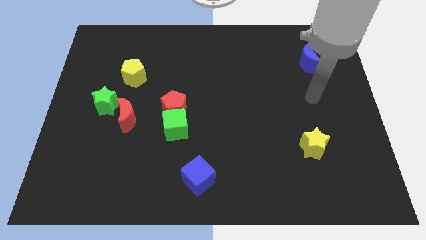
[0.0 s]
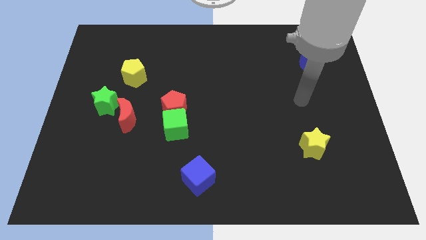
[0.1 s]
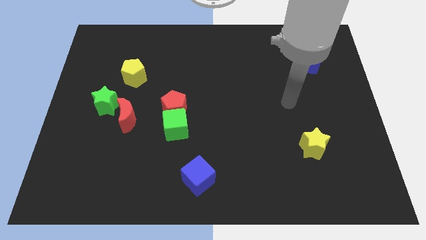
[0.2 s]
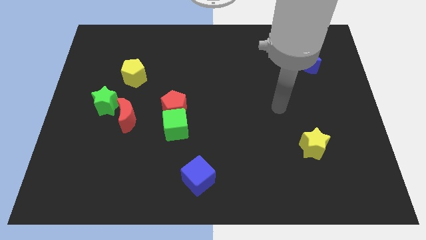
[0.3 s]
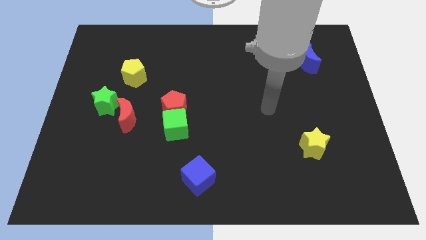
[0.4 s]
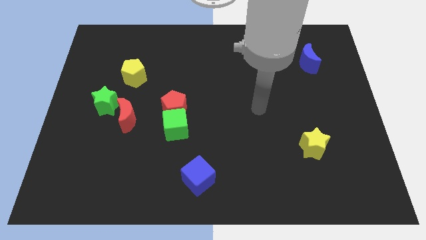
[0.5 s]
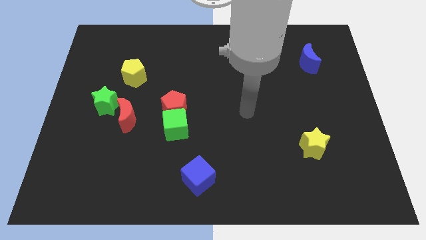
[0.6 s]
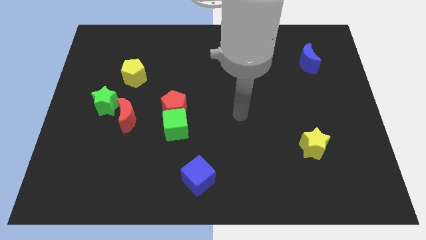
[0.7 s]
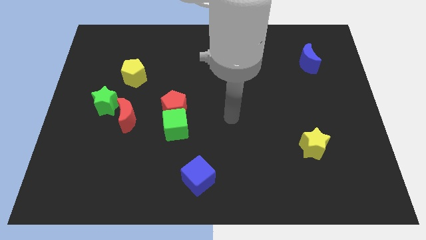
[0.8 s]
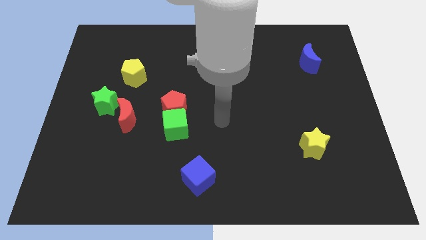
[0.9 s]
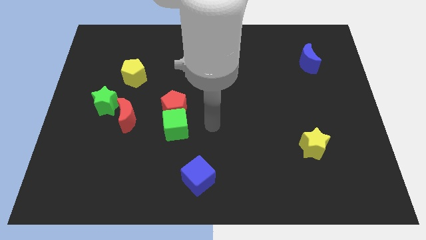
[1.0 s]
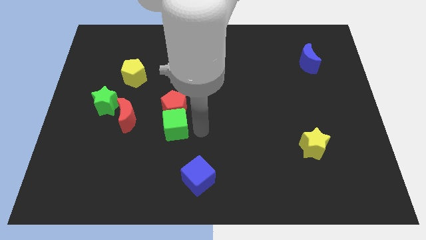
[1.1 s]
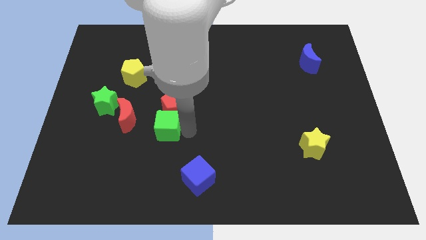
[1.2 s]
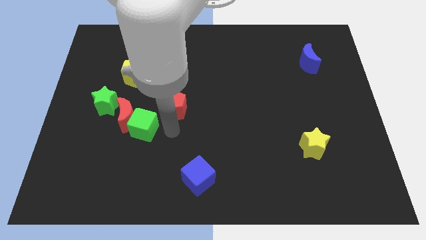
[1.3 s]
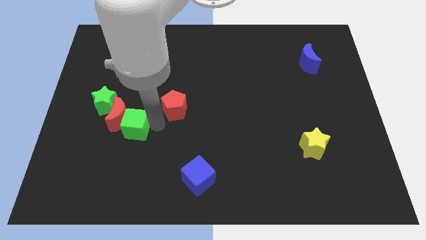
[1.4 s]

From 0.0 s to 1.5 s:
separate the red pentagon from the green cube

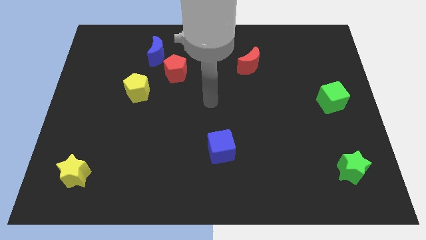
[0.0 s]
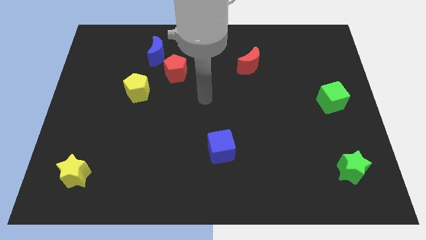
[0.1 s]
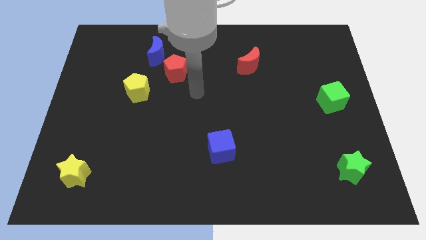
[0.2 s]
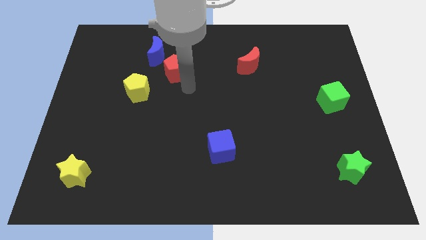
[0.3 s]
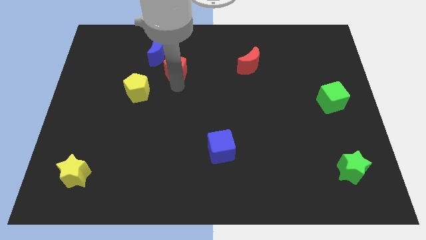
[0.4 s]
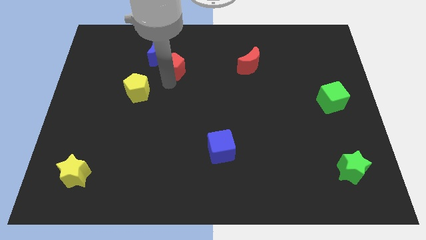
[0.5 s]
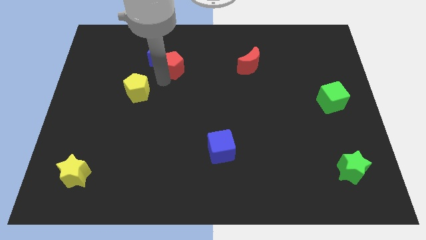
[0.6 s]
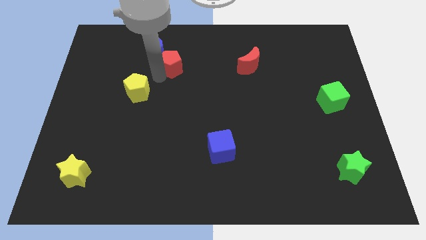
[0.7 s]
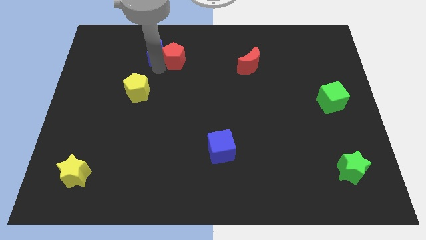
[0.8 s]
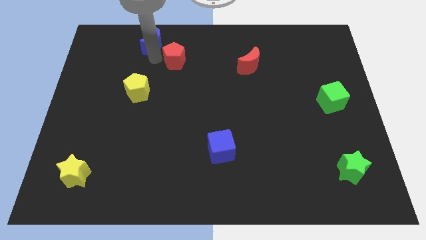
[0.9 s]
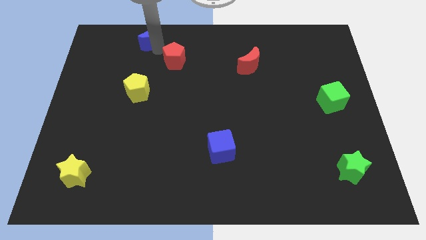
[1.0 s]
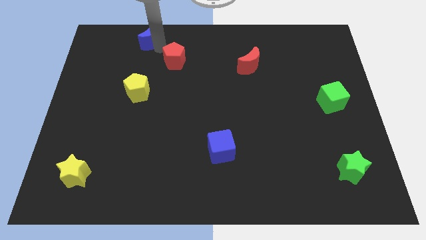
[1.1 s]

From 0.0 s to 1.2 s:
pull the red pentagon apart from the blue moon

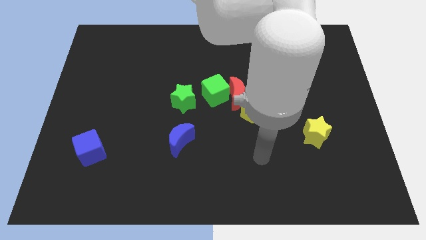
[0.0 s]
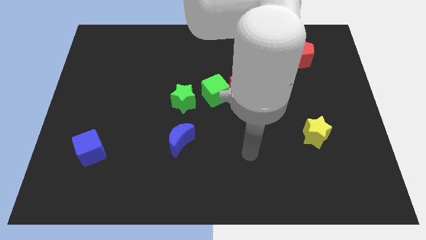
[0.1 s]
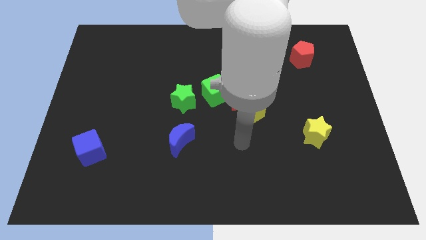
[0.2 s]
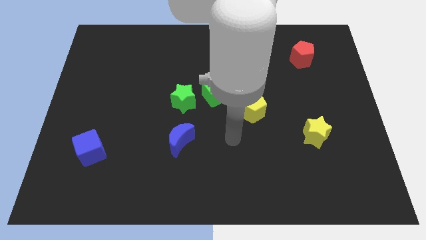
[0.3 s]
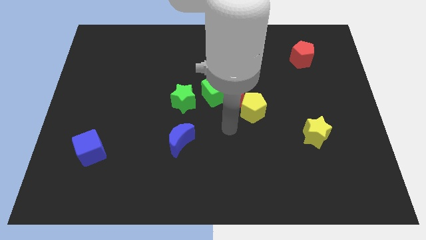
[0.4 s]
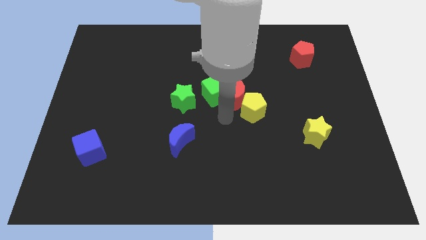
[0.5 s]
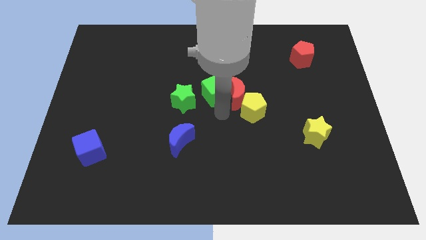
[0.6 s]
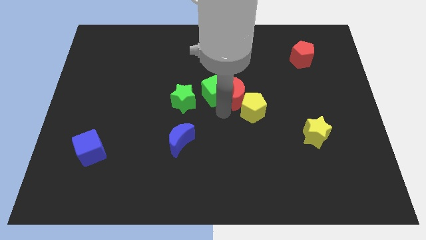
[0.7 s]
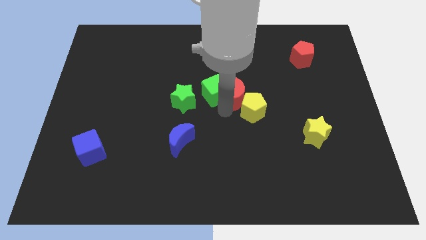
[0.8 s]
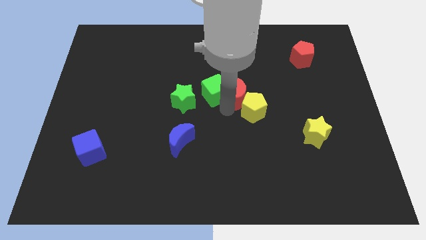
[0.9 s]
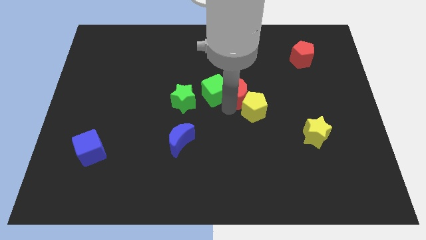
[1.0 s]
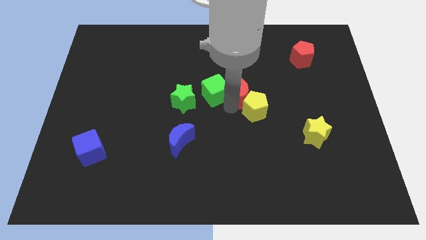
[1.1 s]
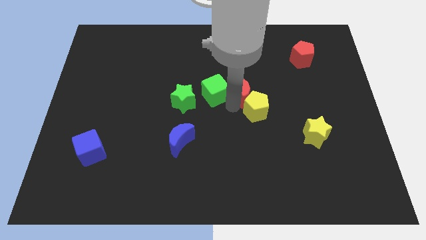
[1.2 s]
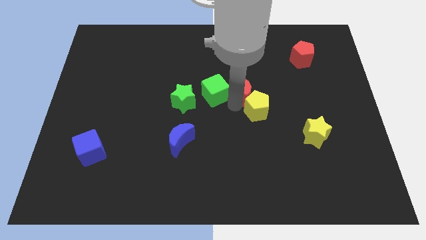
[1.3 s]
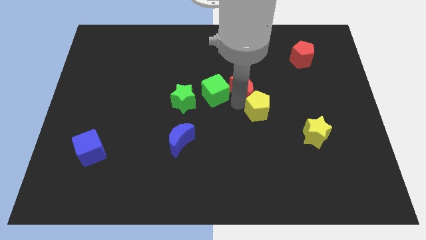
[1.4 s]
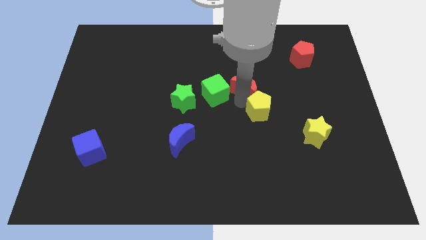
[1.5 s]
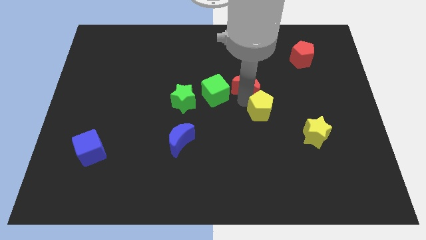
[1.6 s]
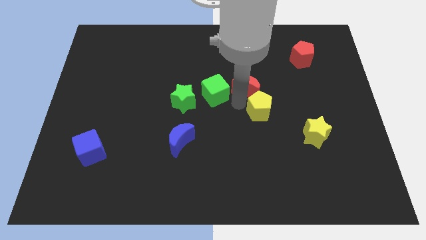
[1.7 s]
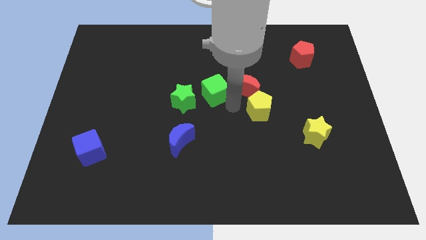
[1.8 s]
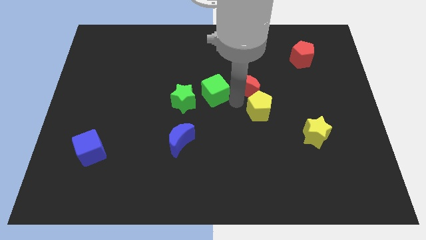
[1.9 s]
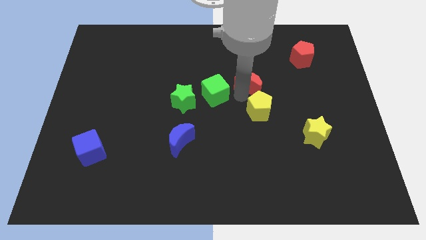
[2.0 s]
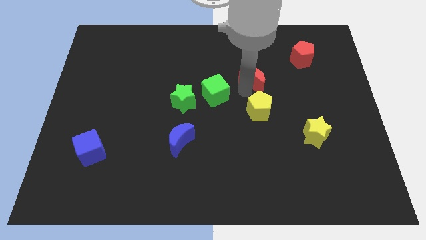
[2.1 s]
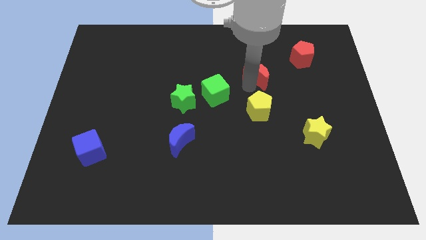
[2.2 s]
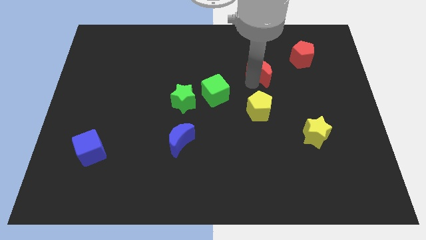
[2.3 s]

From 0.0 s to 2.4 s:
move the red moon away from the green cube and yellow pentagon

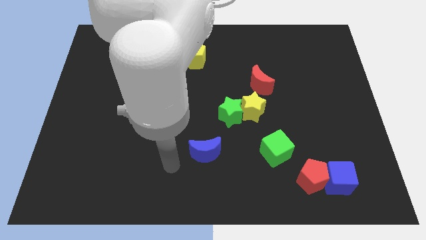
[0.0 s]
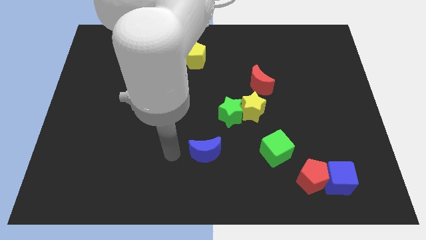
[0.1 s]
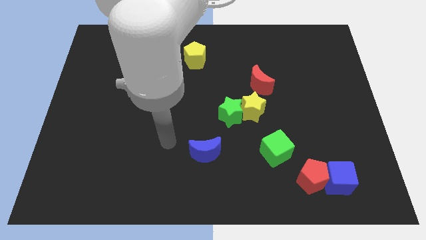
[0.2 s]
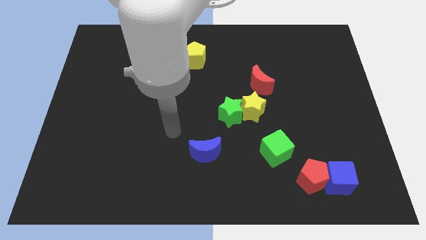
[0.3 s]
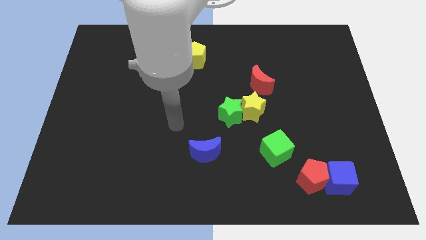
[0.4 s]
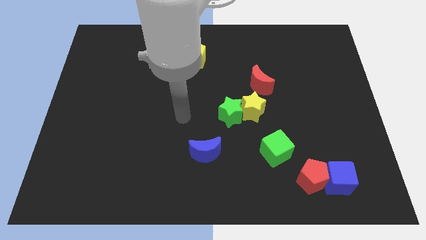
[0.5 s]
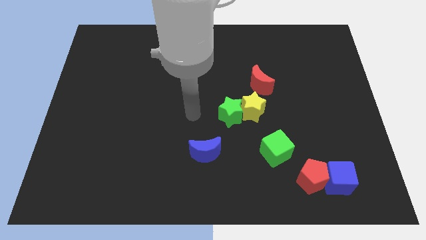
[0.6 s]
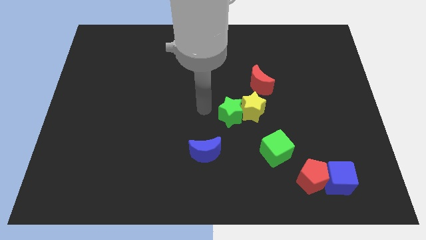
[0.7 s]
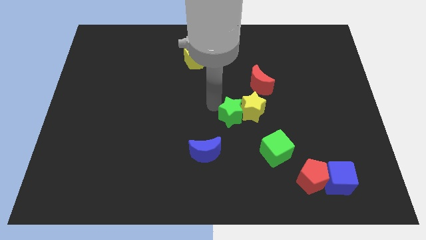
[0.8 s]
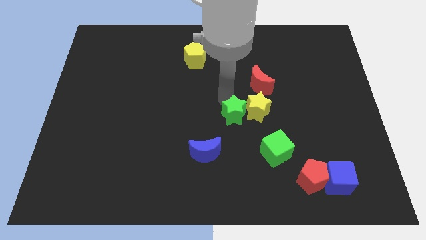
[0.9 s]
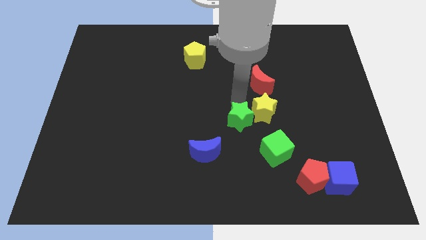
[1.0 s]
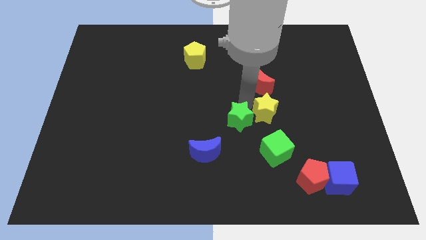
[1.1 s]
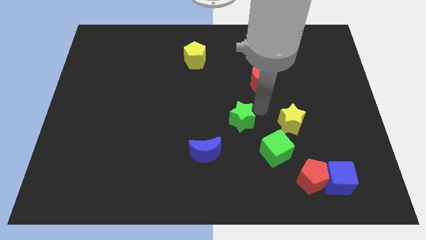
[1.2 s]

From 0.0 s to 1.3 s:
pull the green star apart from the yellow star

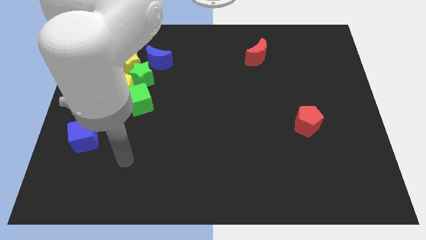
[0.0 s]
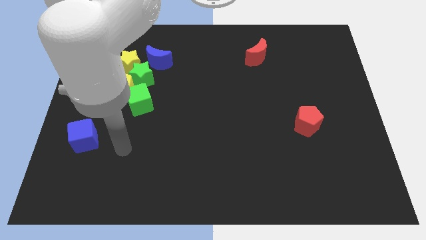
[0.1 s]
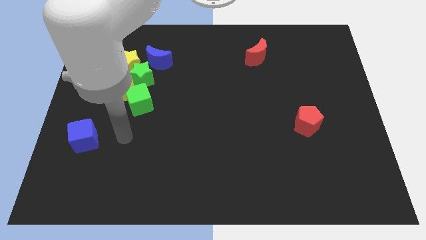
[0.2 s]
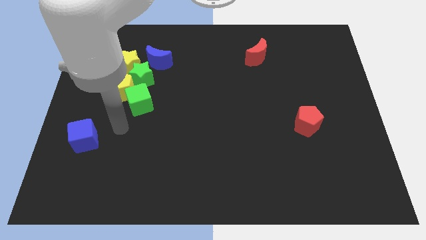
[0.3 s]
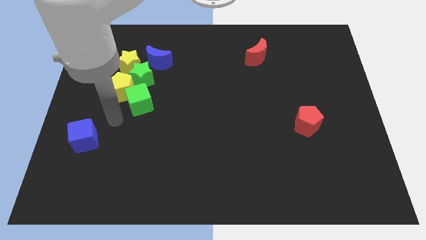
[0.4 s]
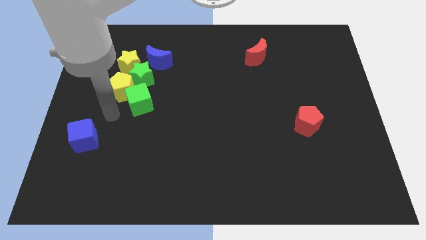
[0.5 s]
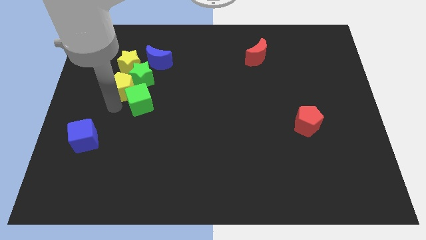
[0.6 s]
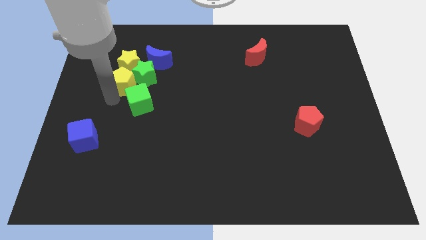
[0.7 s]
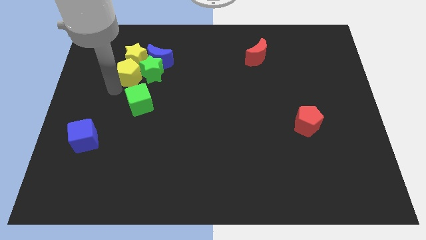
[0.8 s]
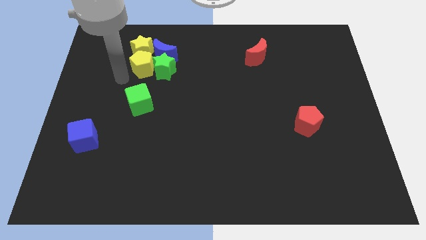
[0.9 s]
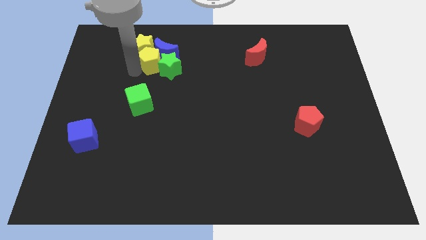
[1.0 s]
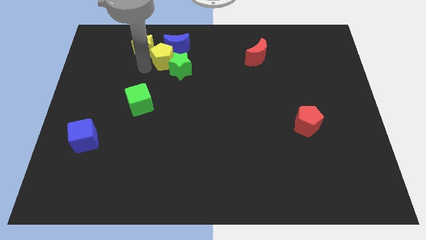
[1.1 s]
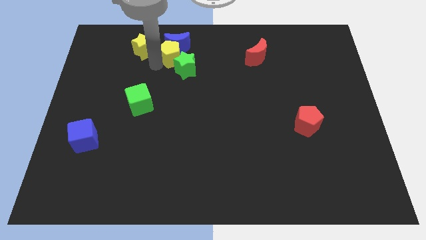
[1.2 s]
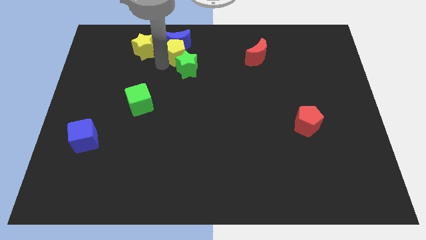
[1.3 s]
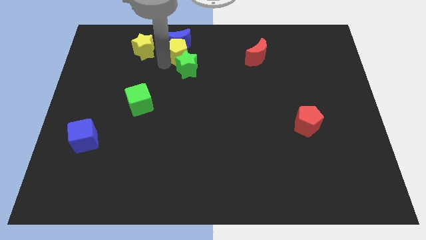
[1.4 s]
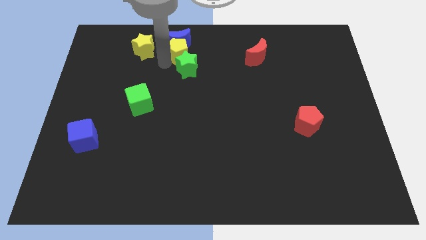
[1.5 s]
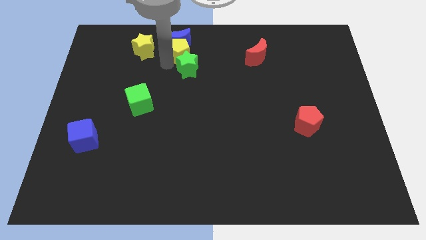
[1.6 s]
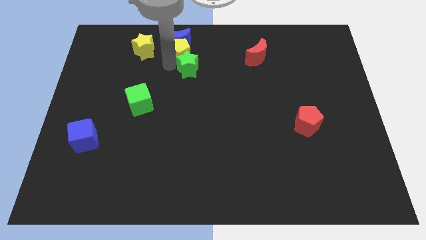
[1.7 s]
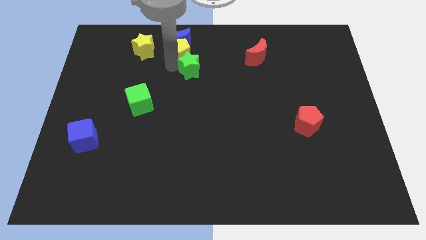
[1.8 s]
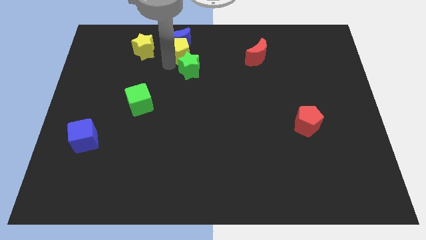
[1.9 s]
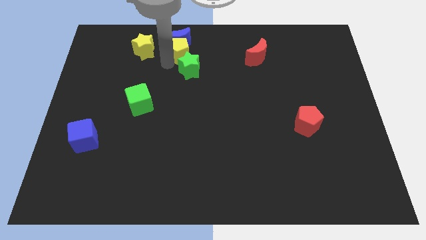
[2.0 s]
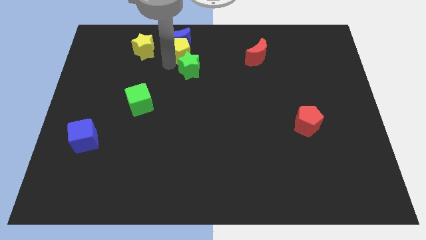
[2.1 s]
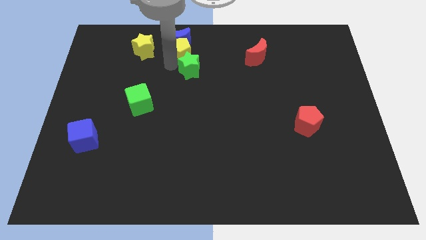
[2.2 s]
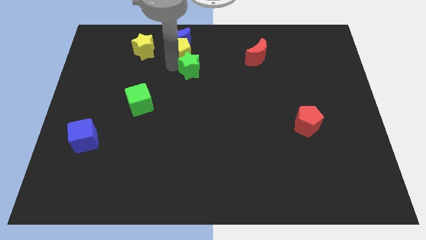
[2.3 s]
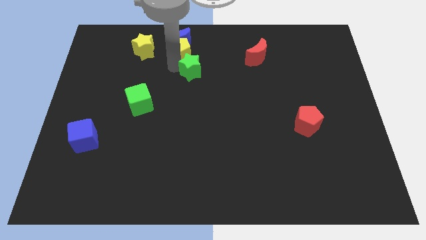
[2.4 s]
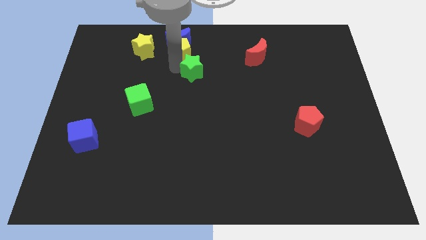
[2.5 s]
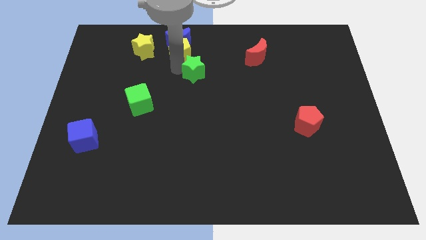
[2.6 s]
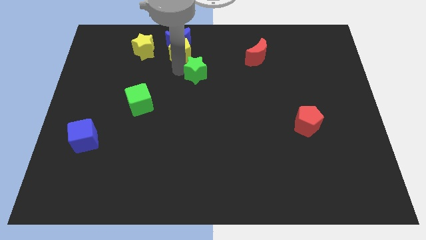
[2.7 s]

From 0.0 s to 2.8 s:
pull the green star apart from the clump

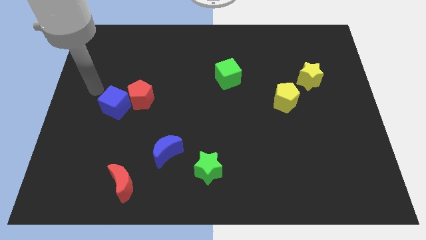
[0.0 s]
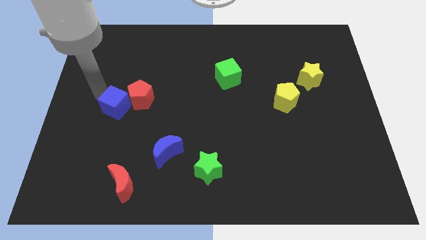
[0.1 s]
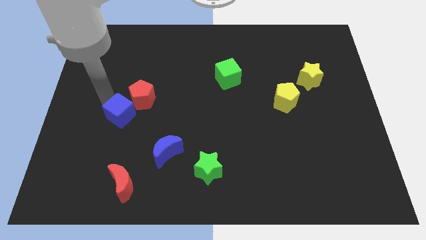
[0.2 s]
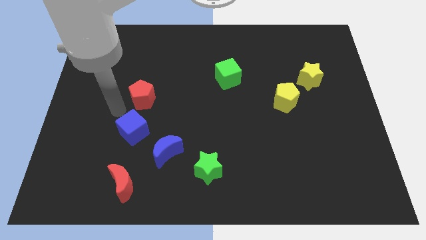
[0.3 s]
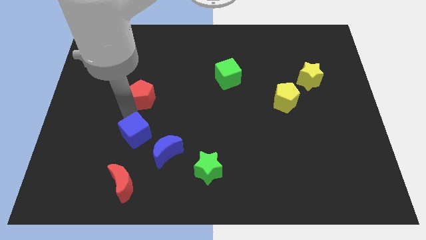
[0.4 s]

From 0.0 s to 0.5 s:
separate the red pentagon from the blue cube
